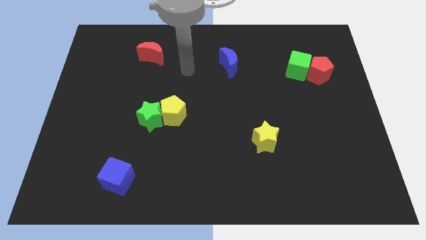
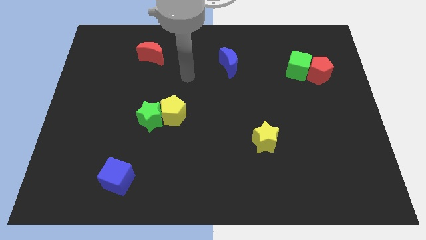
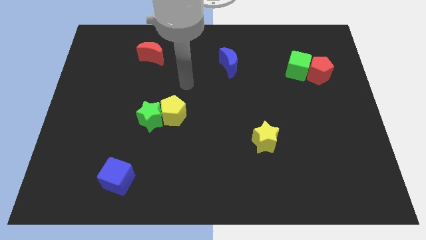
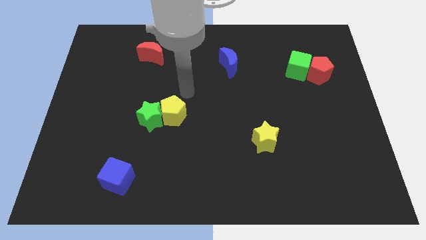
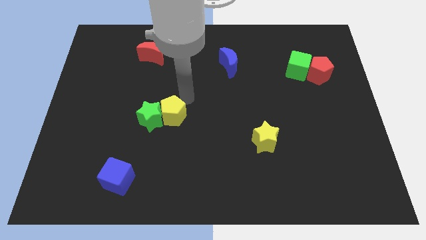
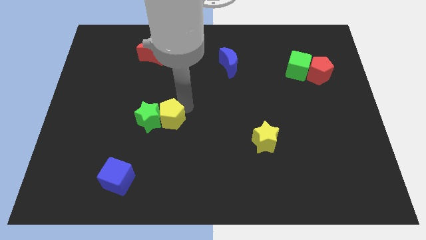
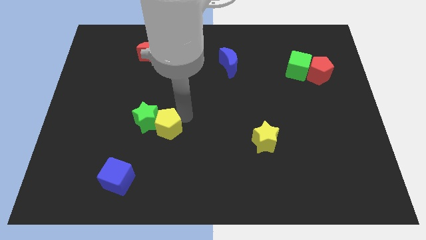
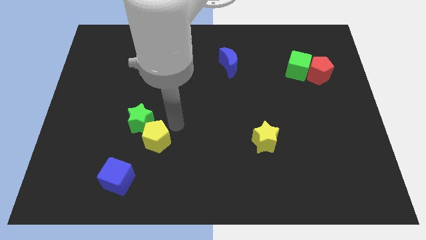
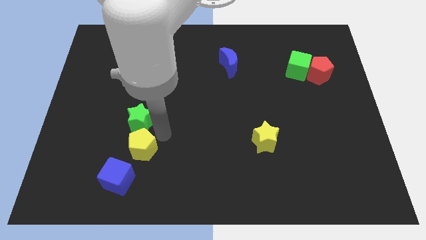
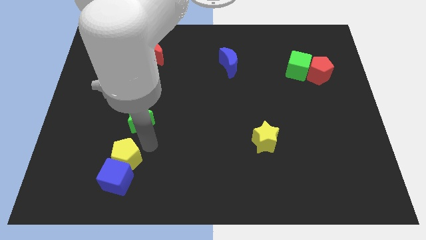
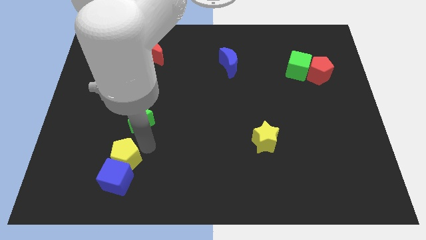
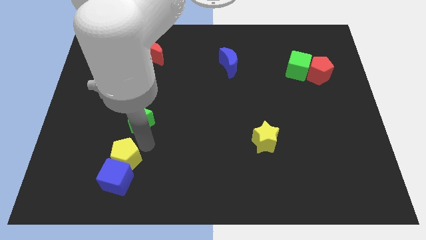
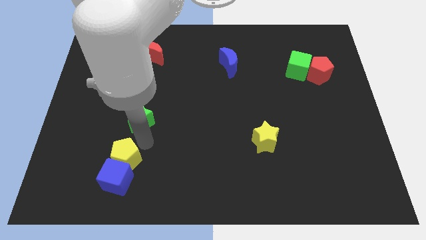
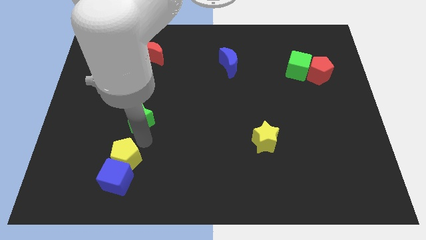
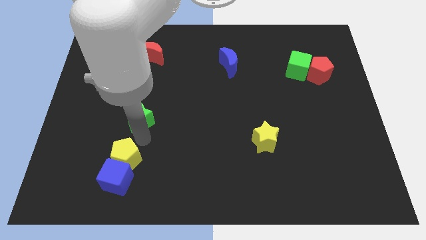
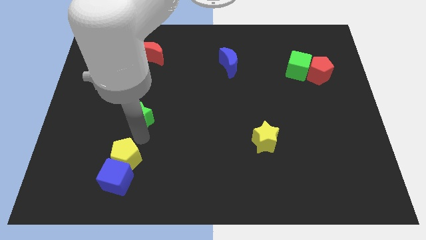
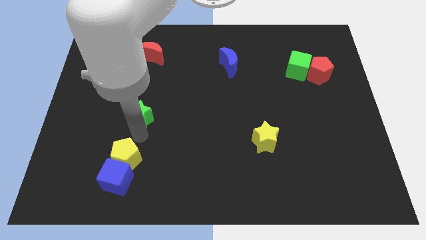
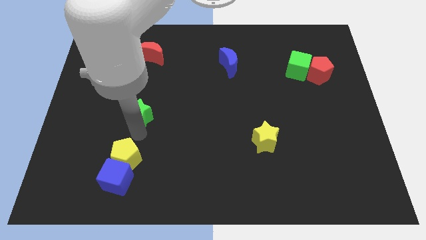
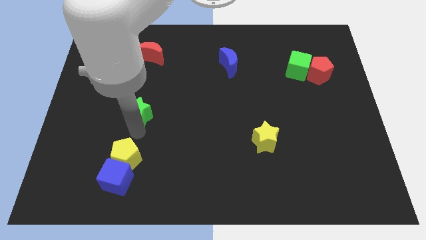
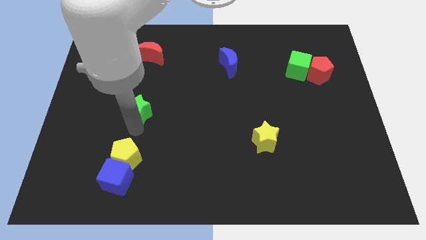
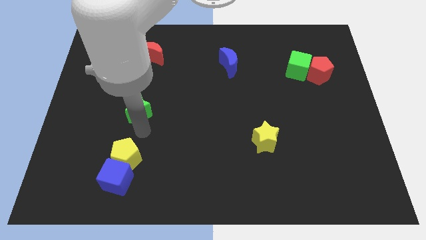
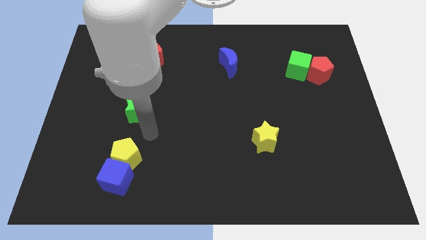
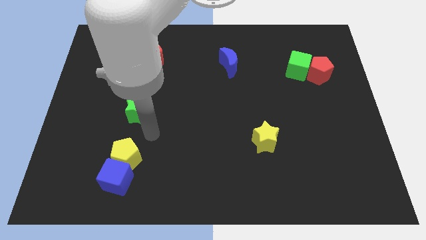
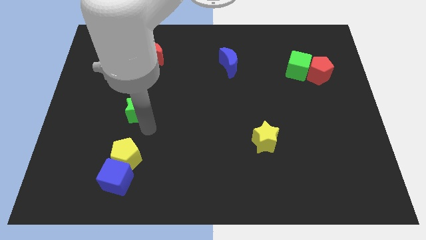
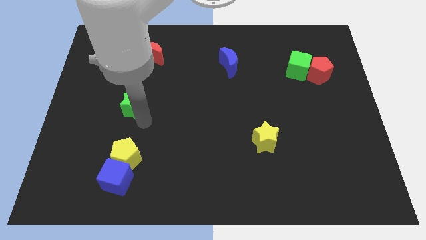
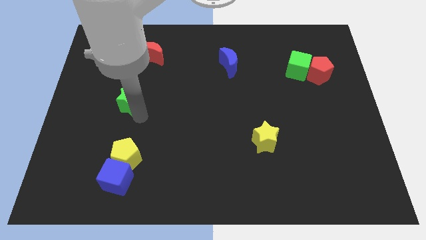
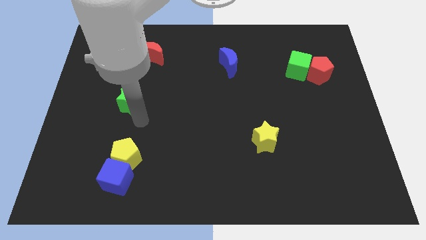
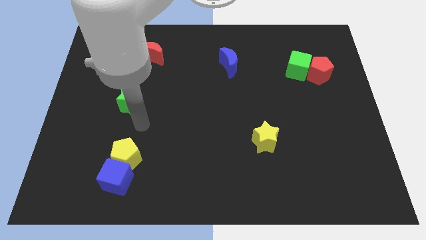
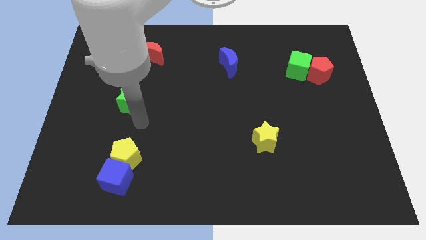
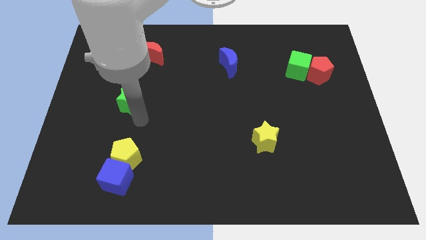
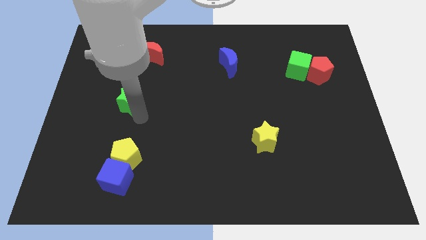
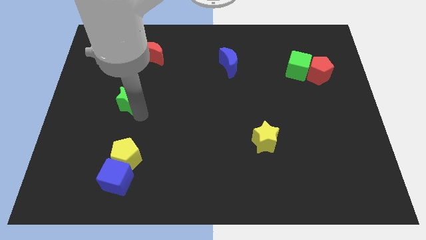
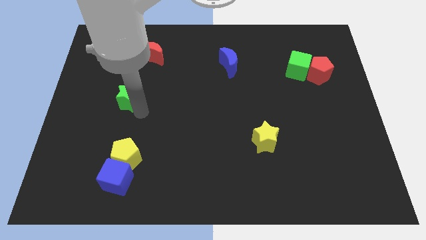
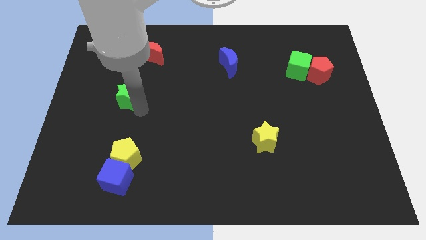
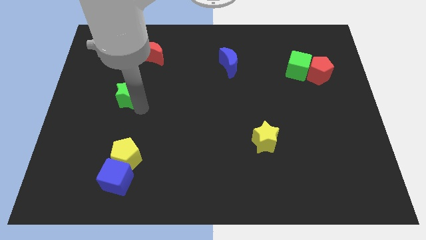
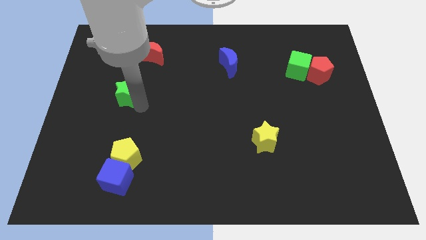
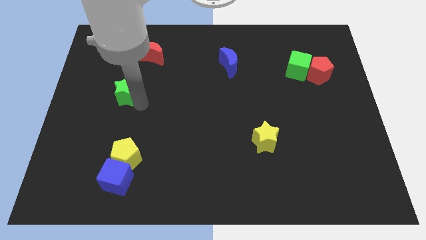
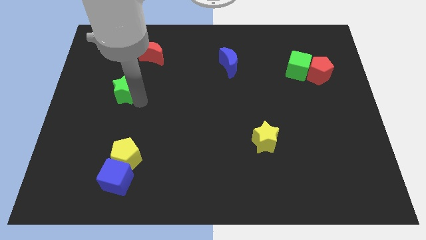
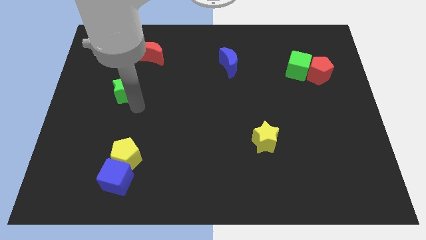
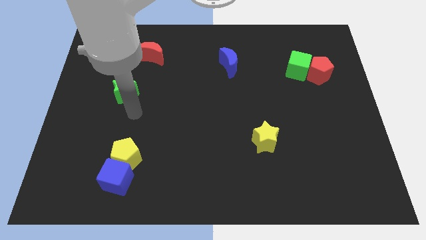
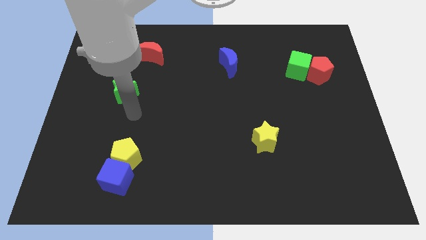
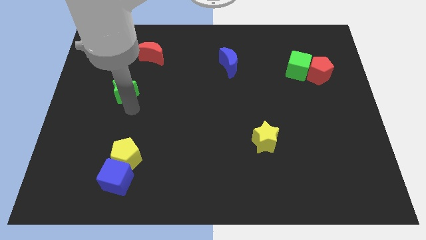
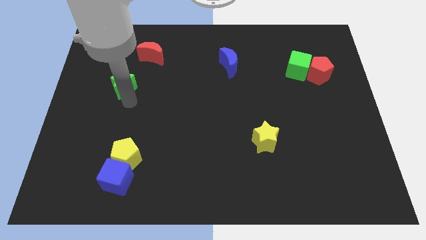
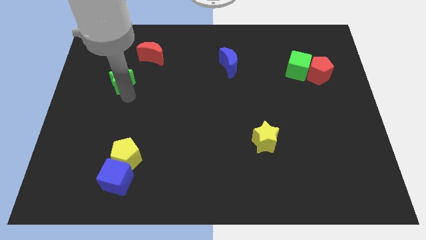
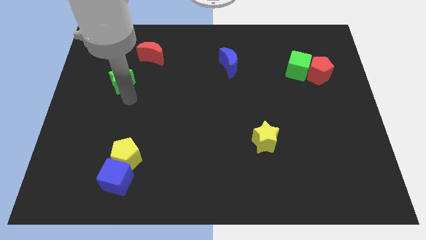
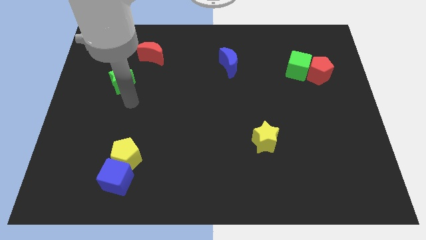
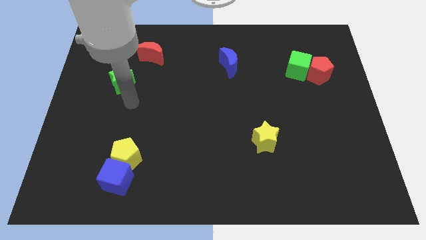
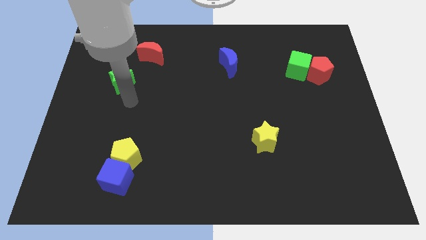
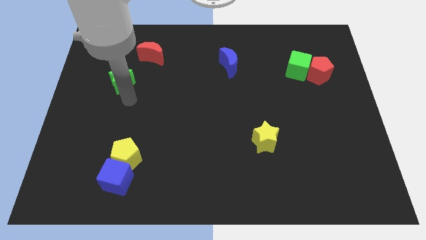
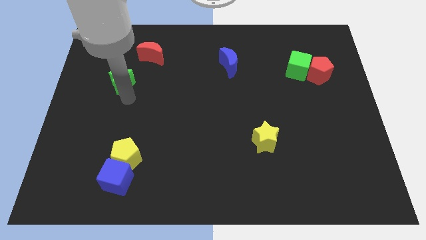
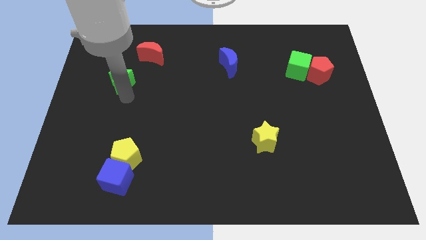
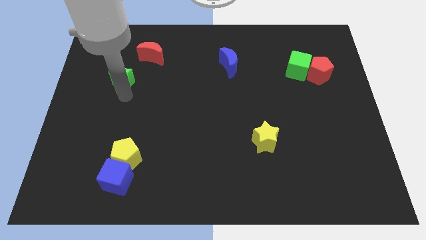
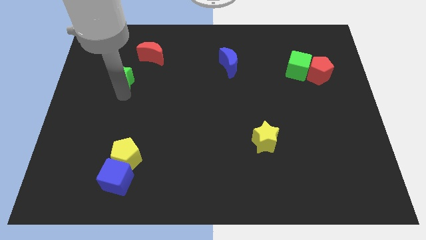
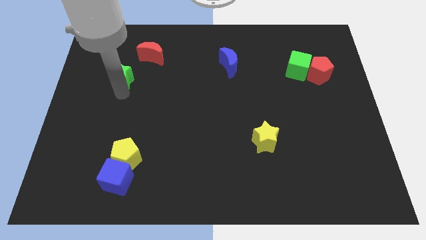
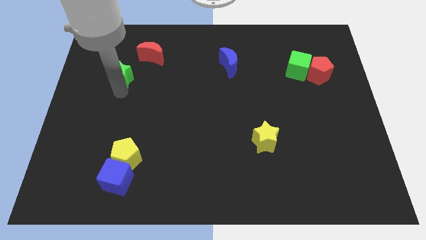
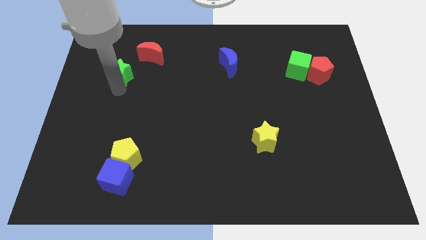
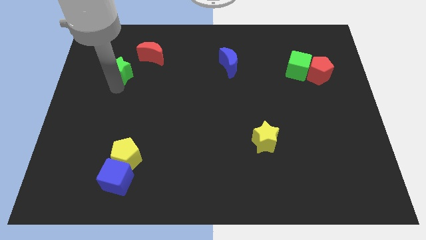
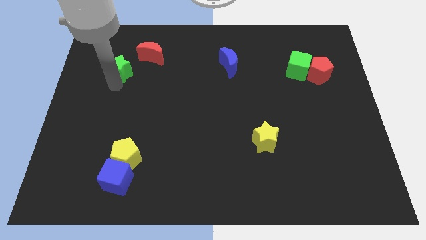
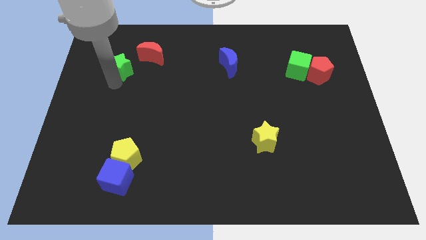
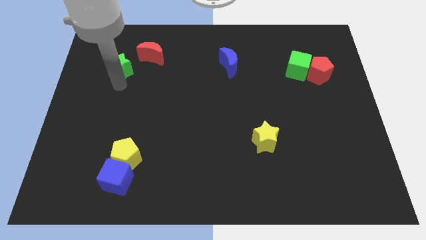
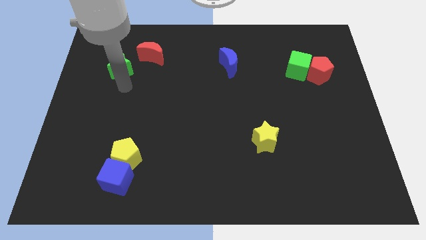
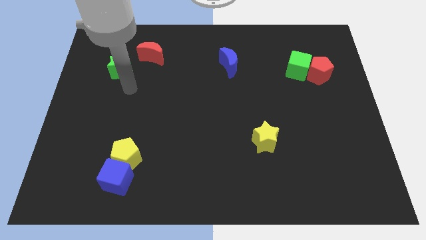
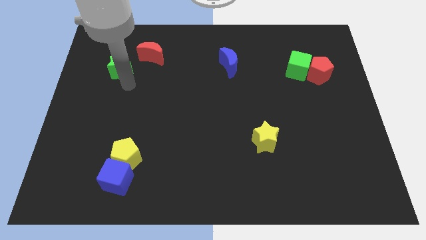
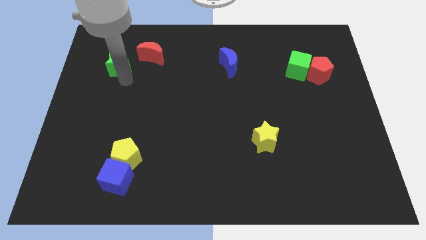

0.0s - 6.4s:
put the green star to the left side of the red moon

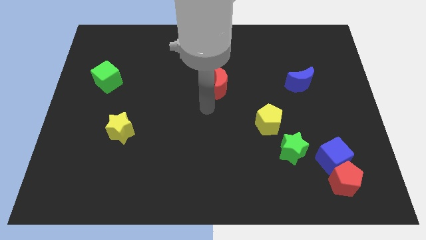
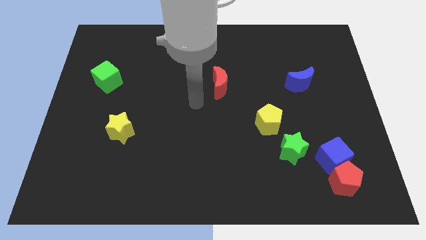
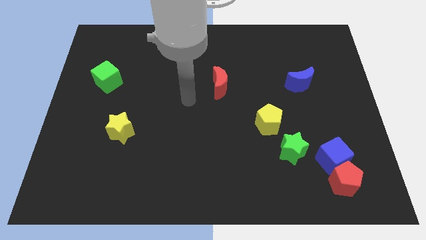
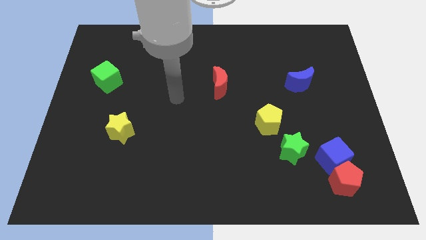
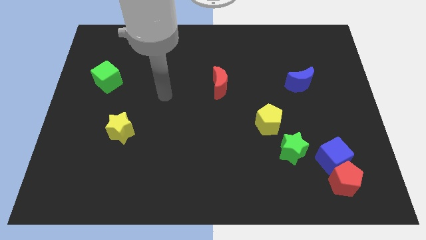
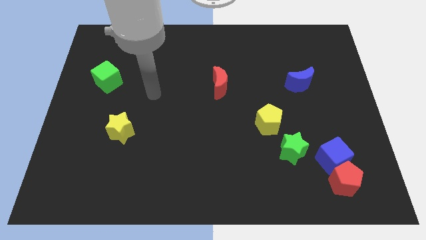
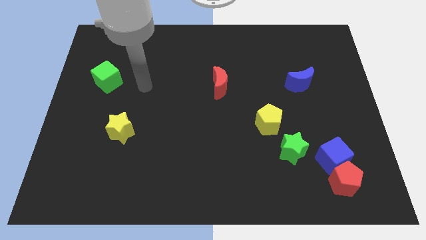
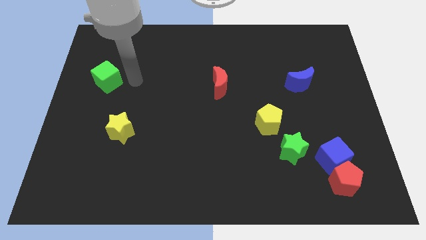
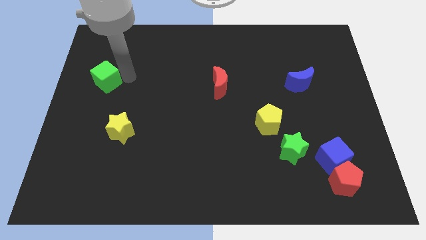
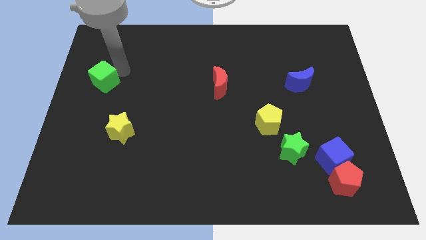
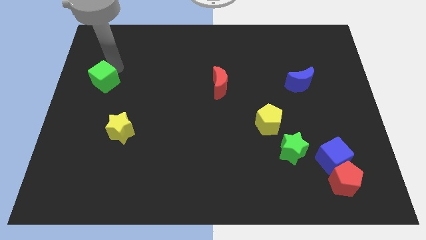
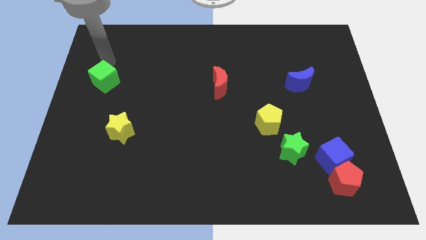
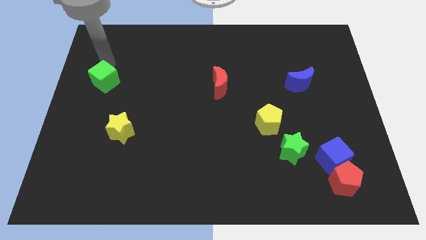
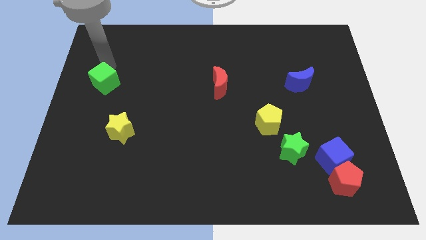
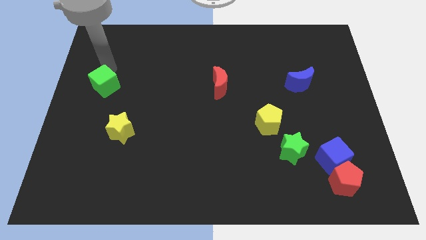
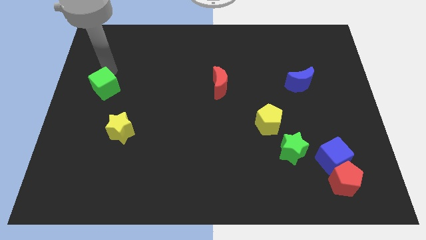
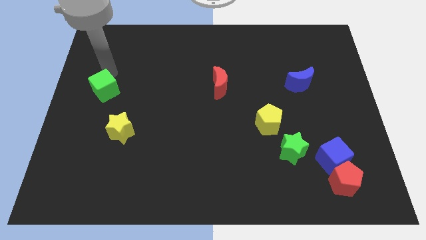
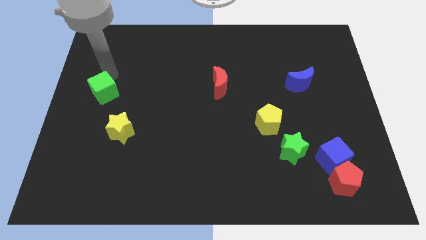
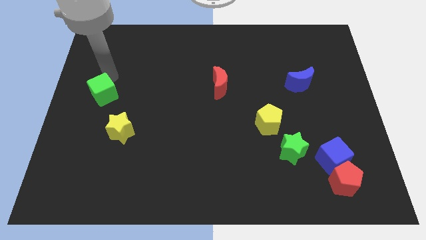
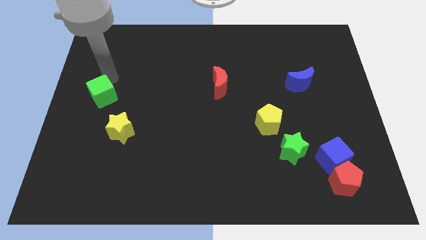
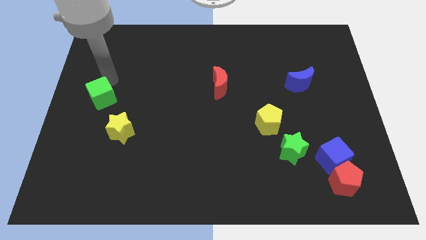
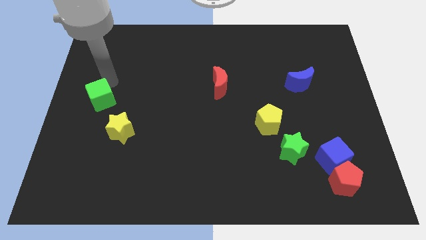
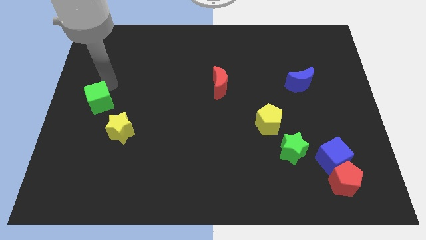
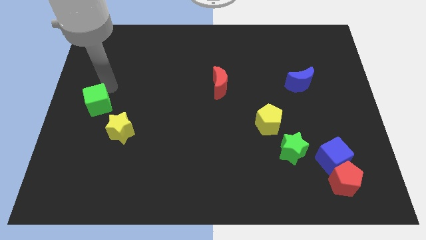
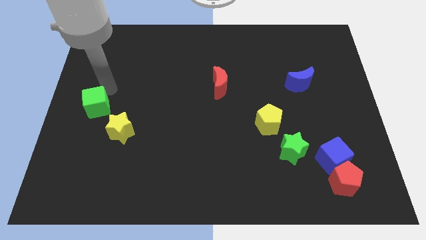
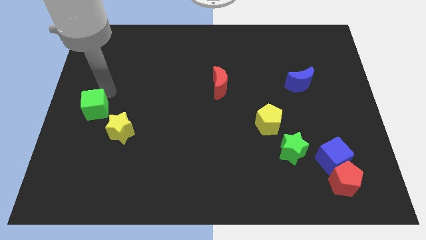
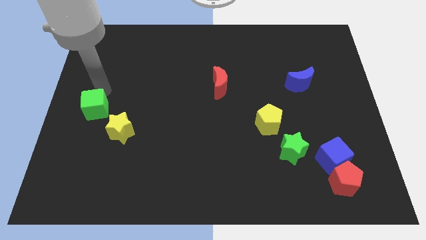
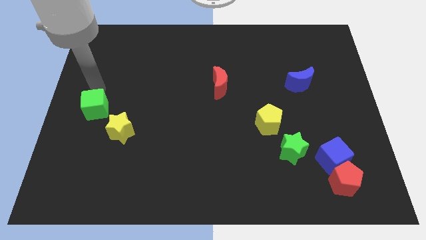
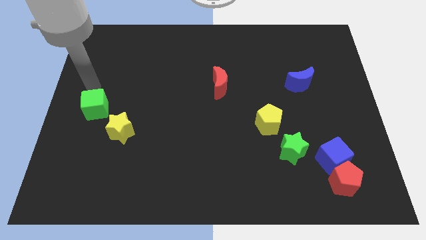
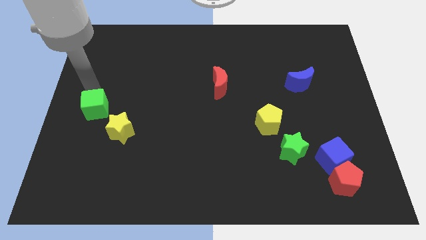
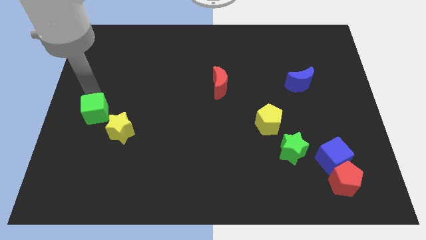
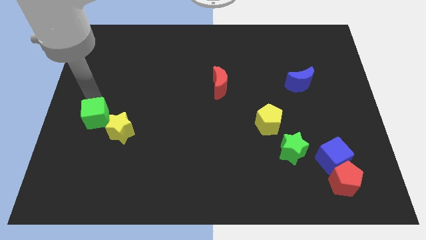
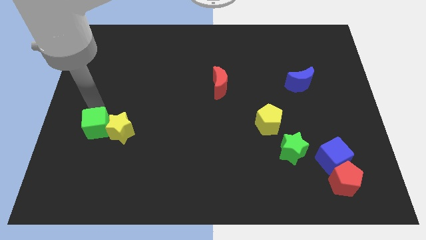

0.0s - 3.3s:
move the green cube diagonally down and to the left of the yellow star
